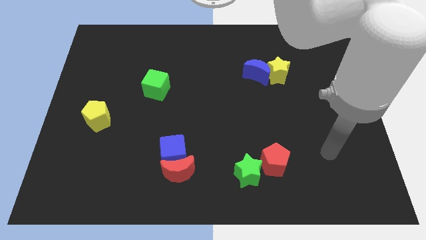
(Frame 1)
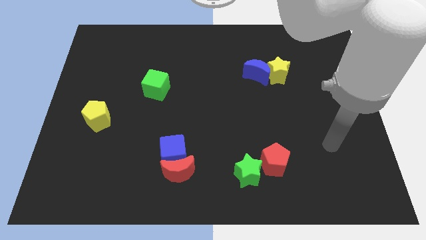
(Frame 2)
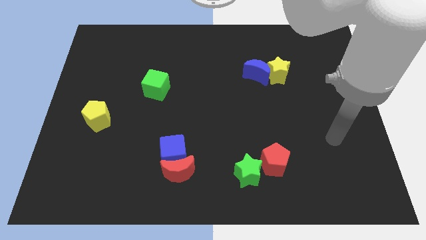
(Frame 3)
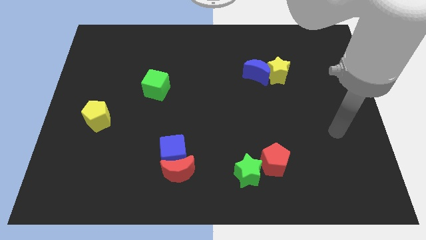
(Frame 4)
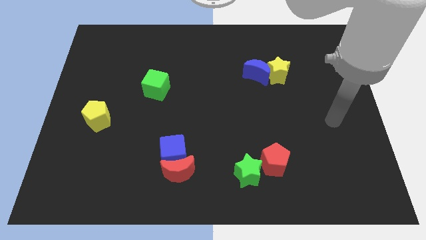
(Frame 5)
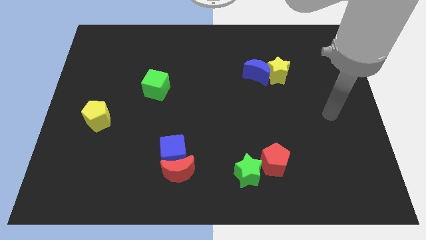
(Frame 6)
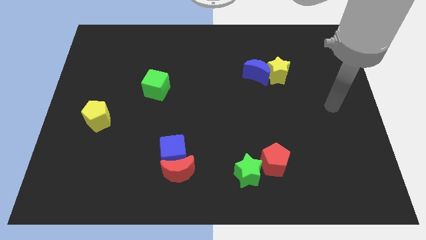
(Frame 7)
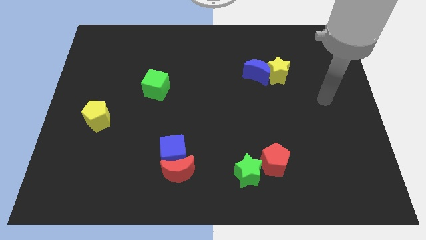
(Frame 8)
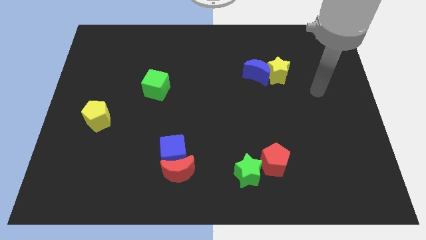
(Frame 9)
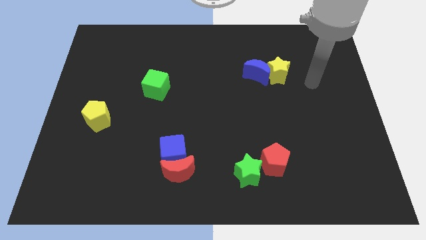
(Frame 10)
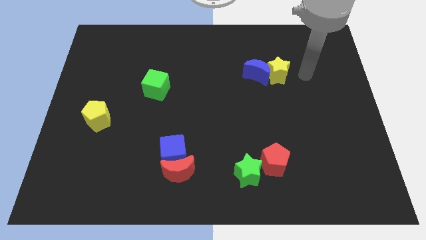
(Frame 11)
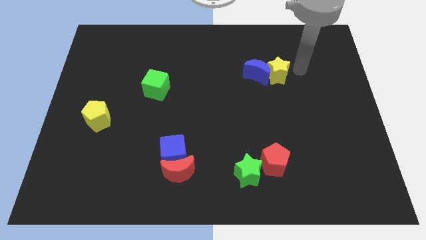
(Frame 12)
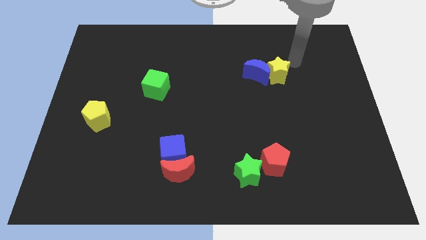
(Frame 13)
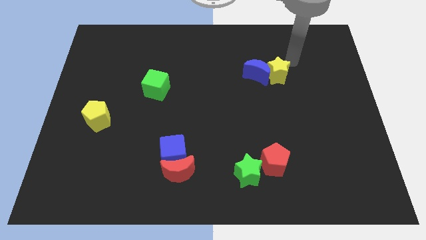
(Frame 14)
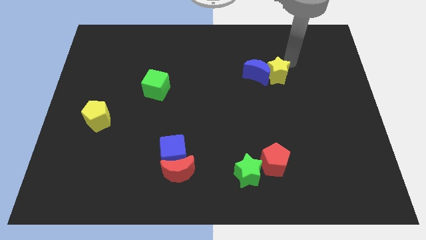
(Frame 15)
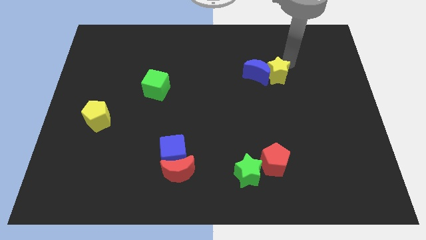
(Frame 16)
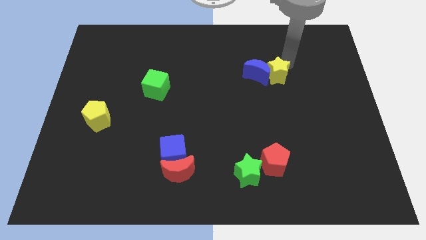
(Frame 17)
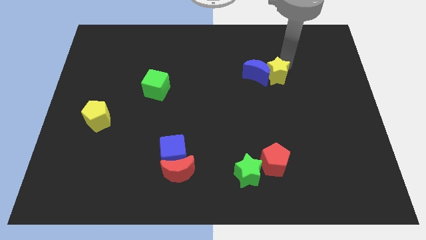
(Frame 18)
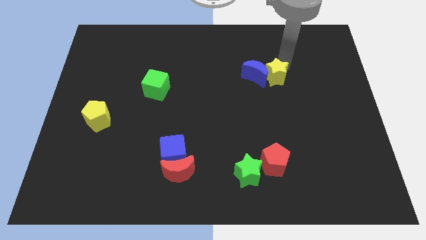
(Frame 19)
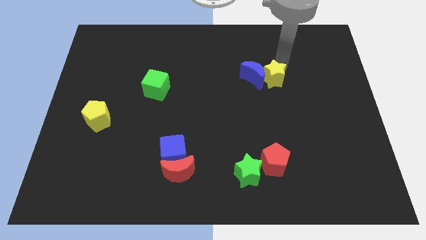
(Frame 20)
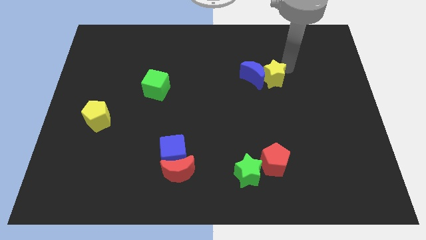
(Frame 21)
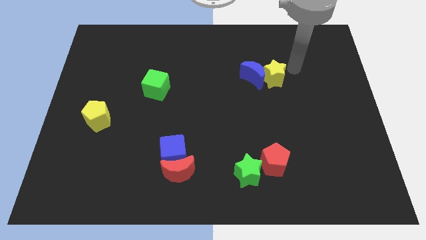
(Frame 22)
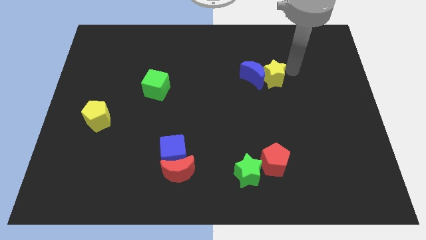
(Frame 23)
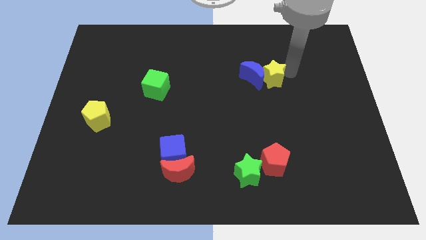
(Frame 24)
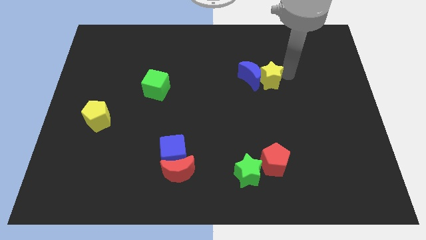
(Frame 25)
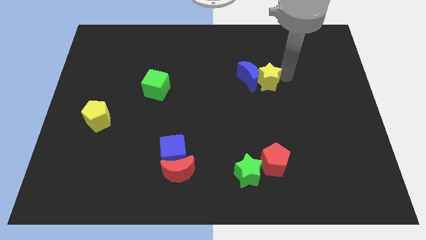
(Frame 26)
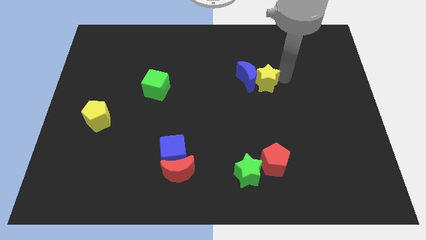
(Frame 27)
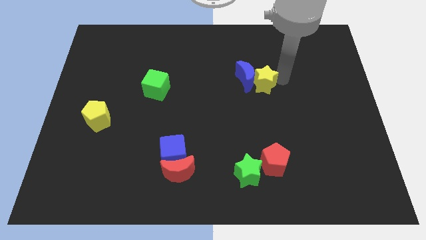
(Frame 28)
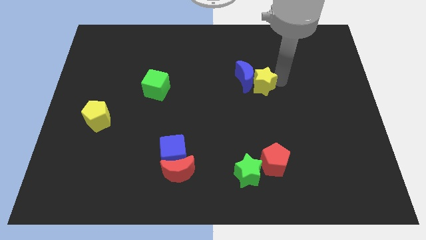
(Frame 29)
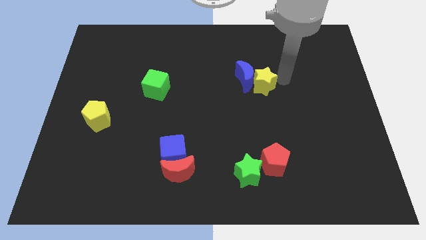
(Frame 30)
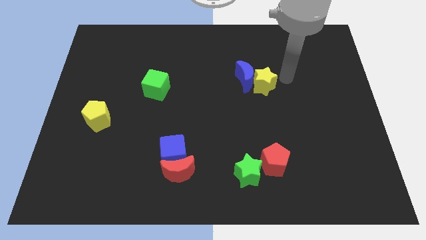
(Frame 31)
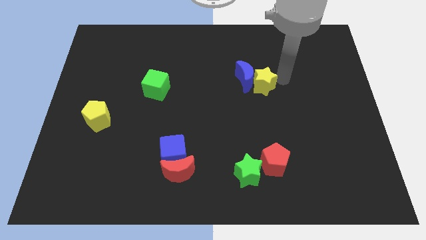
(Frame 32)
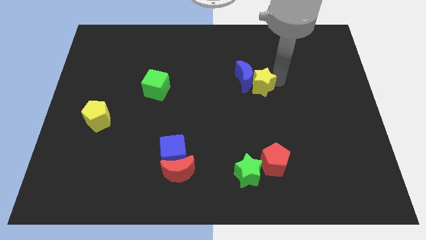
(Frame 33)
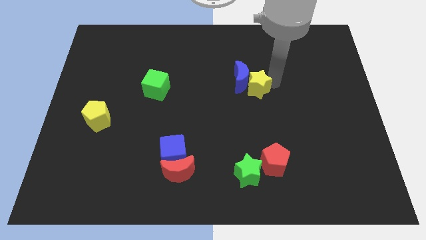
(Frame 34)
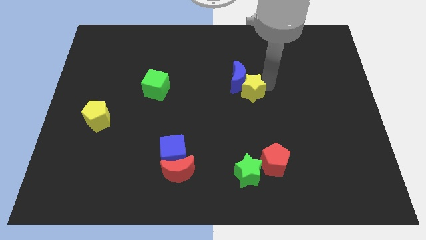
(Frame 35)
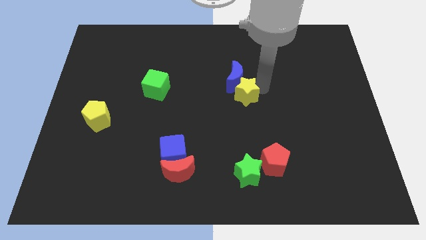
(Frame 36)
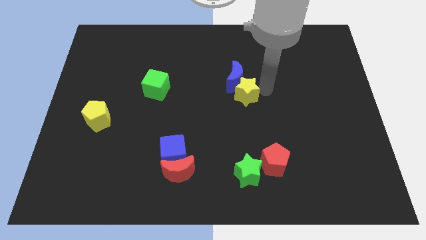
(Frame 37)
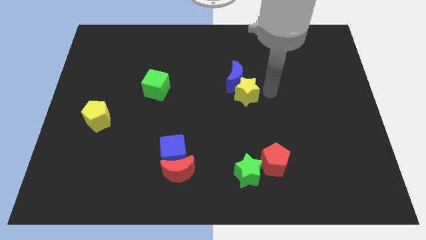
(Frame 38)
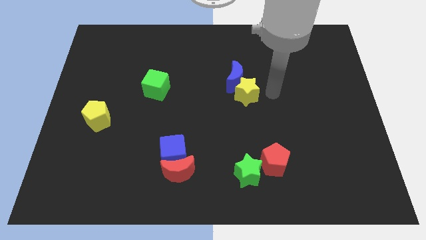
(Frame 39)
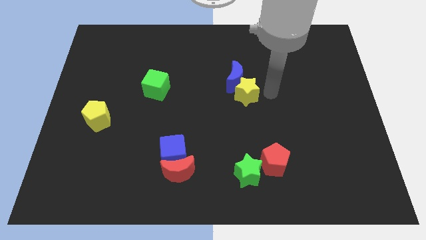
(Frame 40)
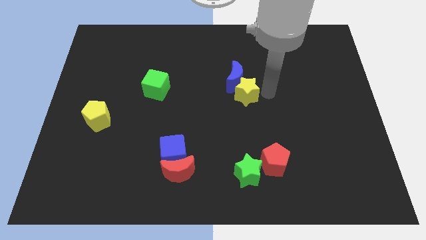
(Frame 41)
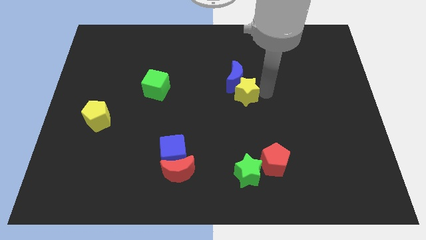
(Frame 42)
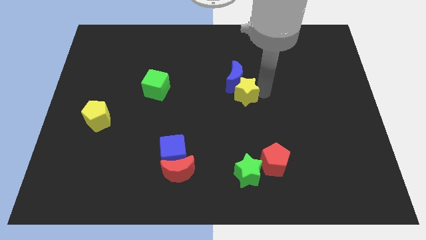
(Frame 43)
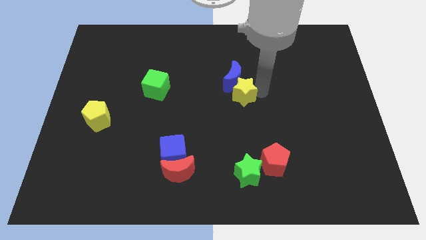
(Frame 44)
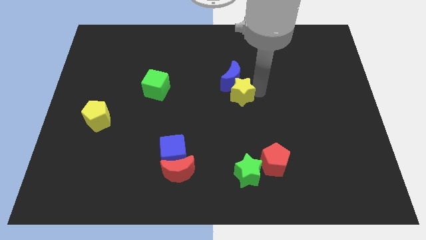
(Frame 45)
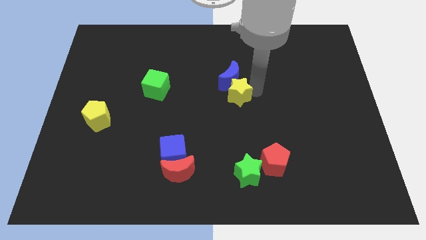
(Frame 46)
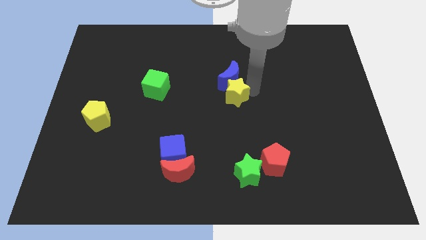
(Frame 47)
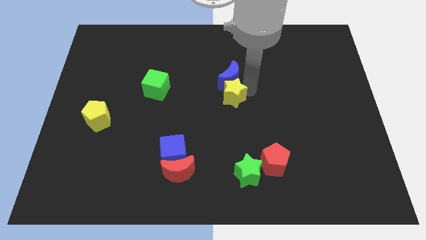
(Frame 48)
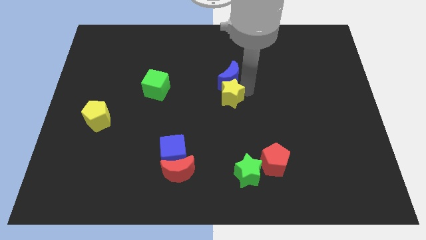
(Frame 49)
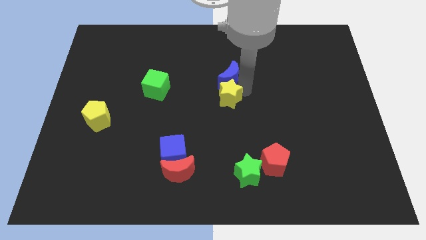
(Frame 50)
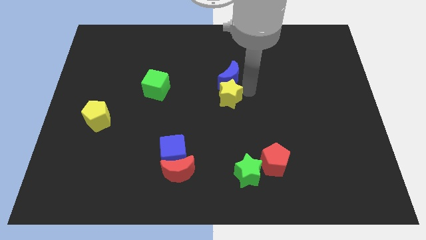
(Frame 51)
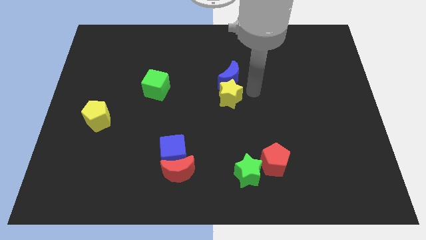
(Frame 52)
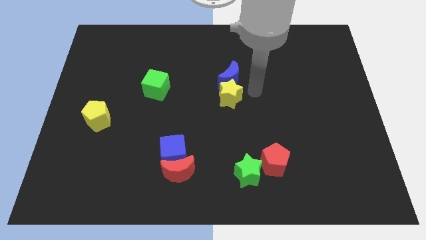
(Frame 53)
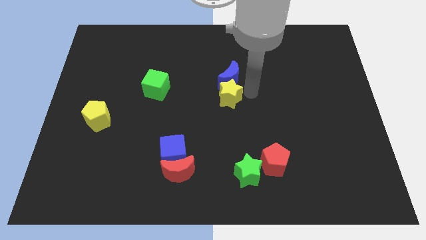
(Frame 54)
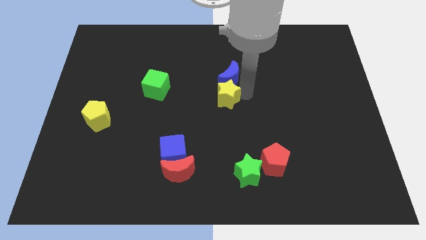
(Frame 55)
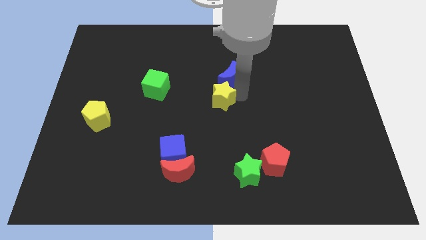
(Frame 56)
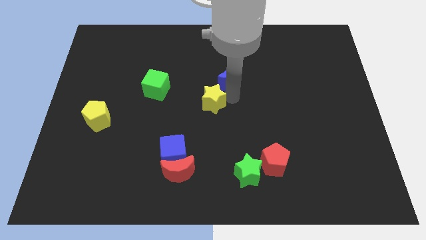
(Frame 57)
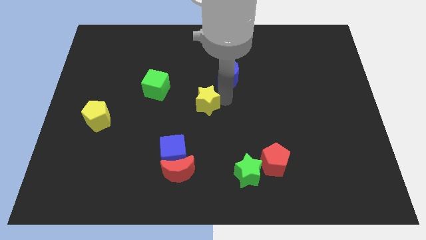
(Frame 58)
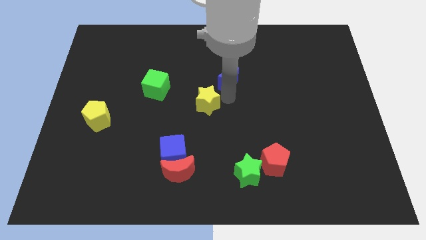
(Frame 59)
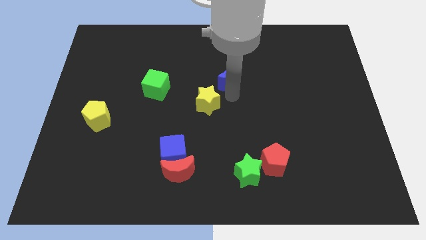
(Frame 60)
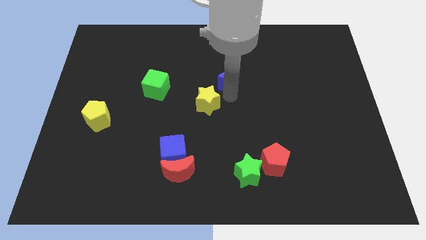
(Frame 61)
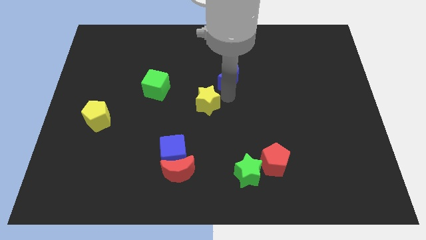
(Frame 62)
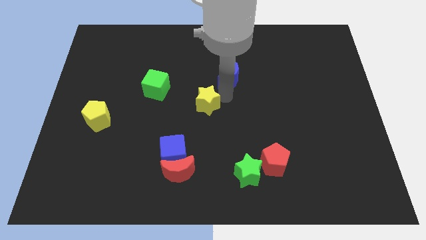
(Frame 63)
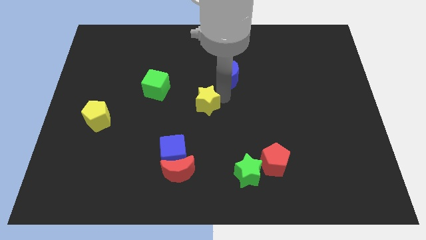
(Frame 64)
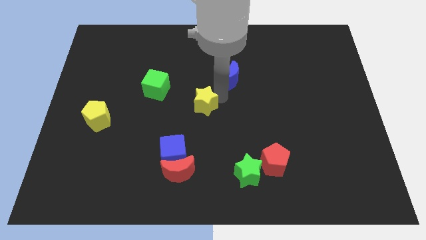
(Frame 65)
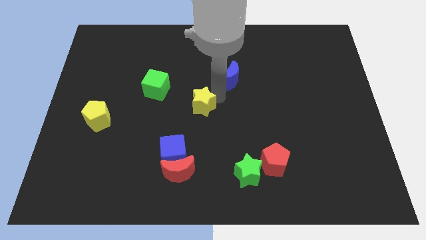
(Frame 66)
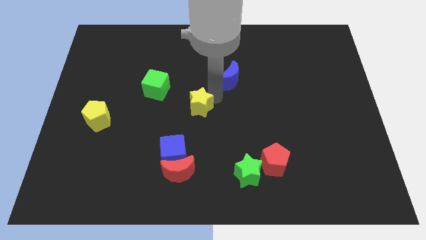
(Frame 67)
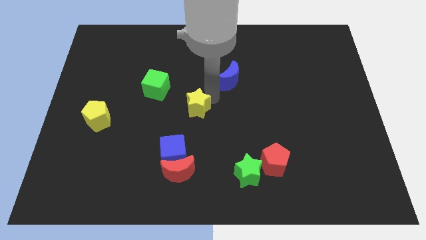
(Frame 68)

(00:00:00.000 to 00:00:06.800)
put the yellow star to the top of the blue cube
